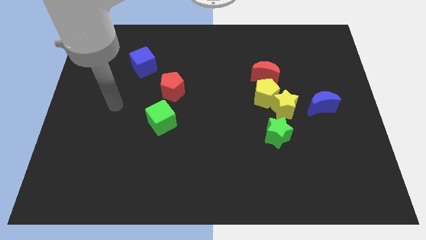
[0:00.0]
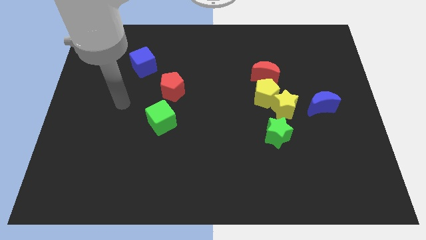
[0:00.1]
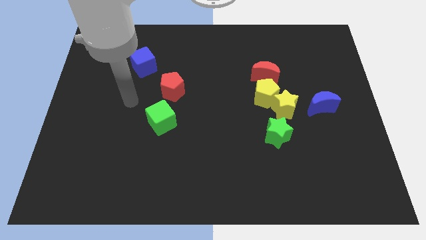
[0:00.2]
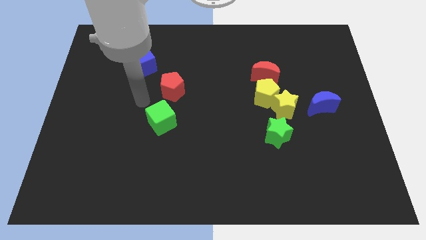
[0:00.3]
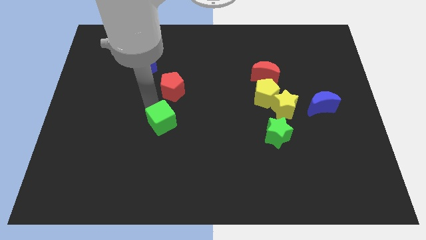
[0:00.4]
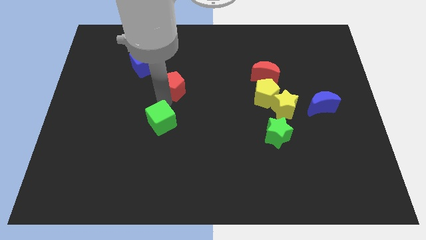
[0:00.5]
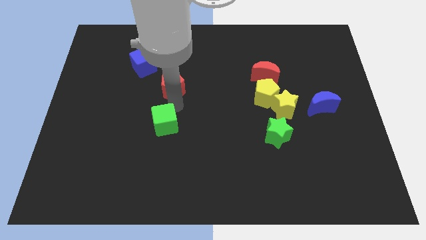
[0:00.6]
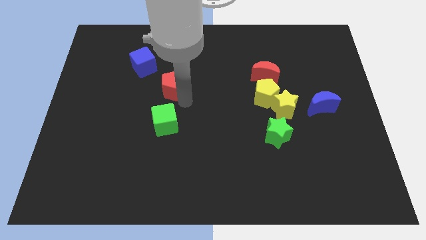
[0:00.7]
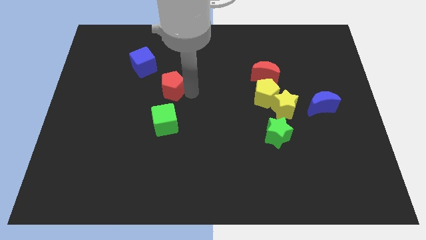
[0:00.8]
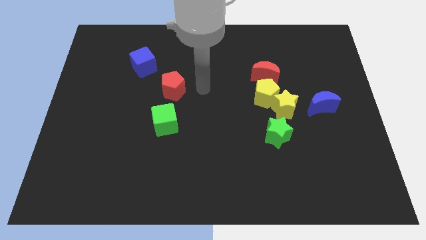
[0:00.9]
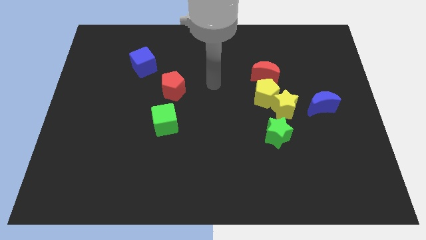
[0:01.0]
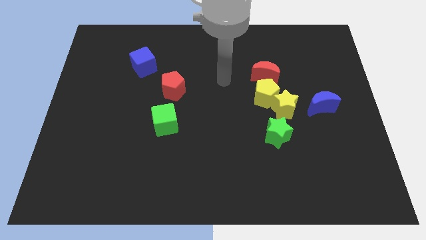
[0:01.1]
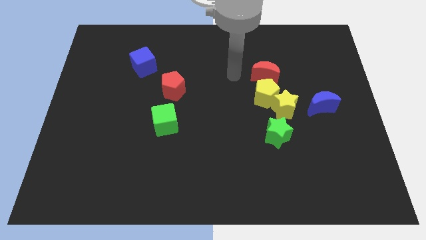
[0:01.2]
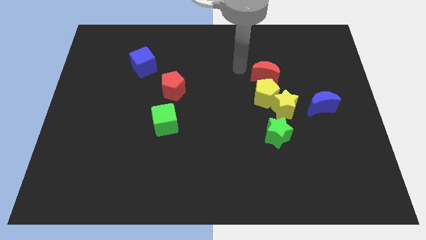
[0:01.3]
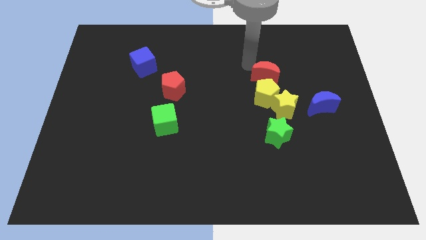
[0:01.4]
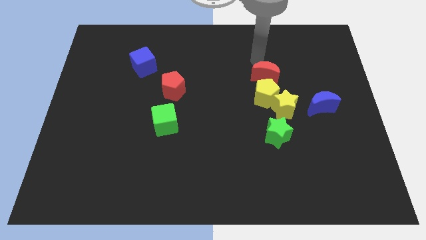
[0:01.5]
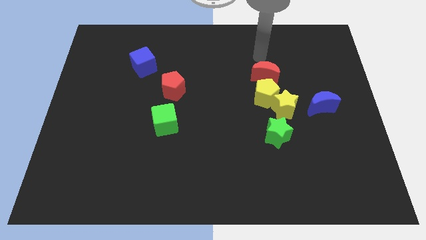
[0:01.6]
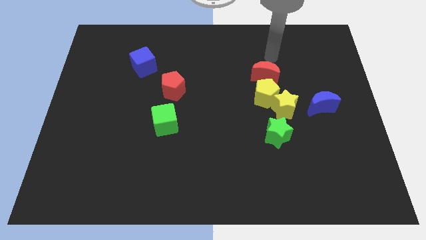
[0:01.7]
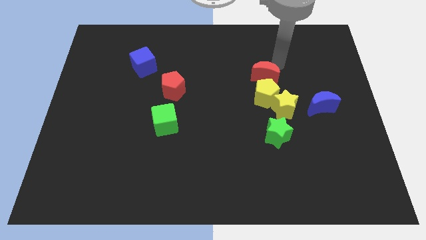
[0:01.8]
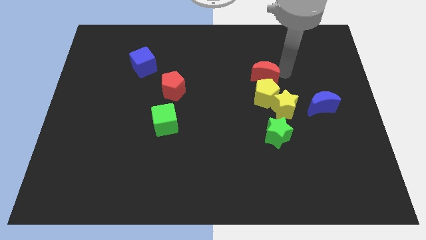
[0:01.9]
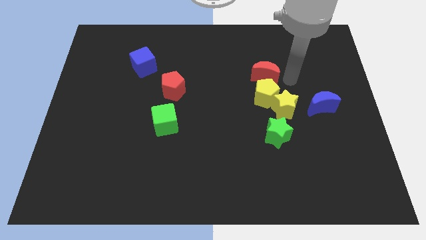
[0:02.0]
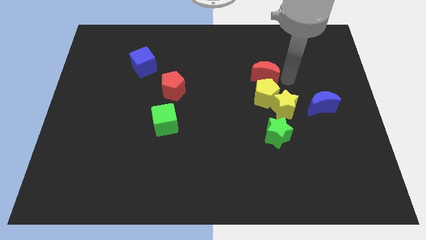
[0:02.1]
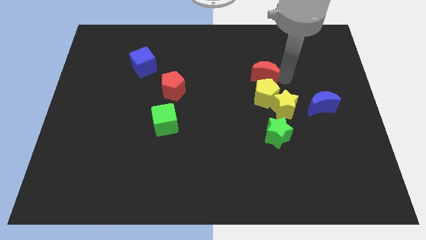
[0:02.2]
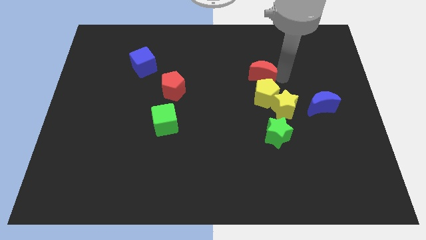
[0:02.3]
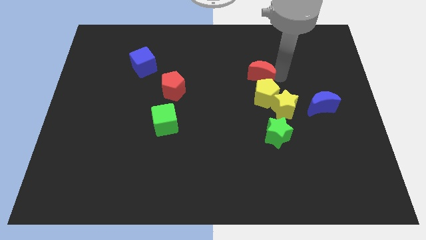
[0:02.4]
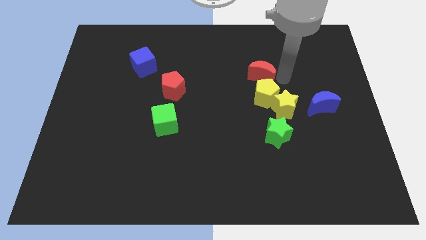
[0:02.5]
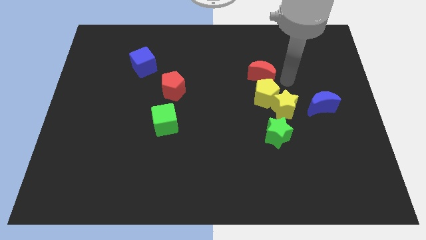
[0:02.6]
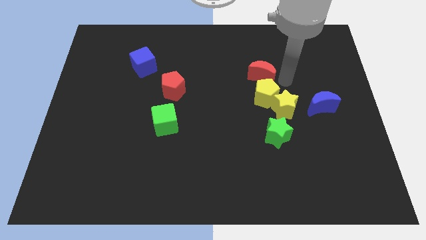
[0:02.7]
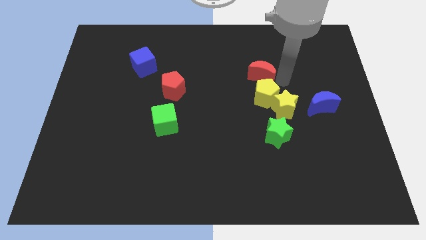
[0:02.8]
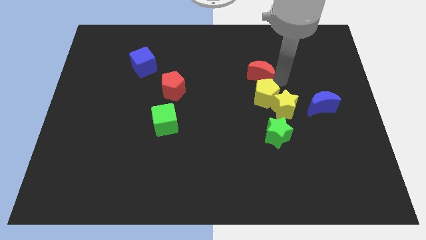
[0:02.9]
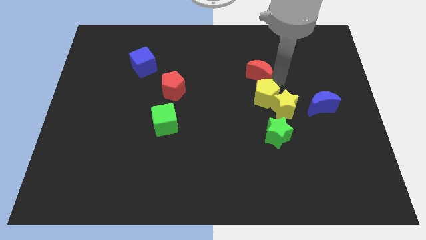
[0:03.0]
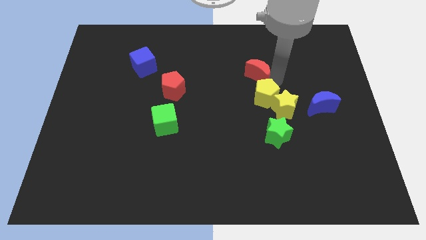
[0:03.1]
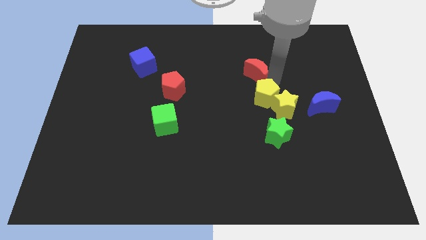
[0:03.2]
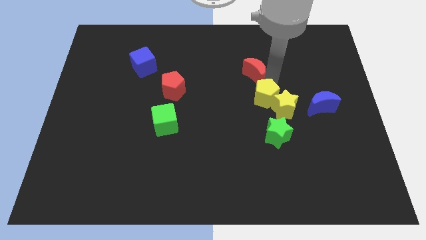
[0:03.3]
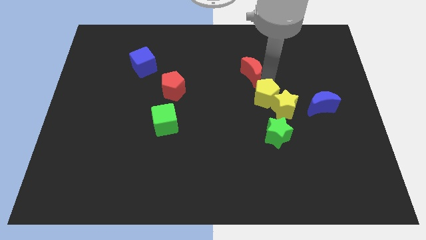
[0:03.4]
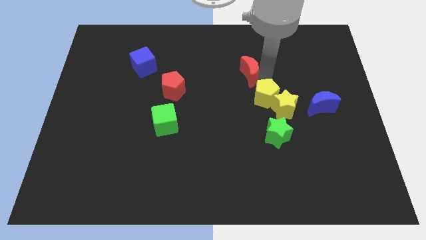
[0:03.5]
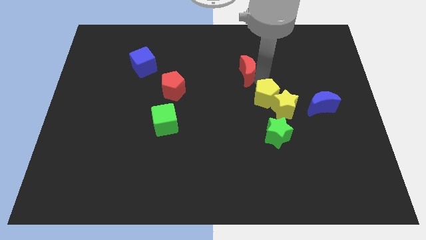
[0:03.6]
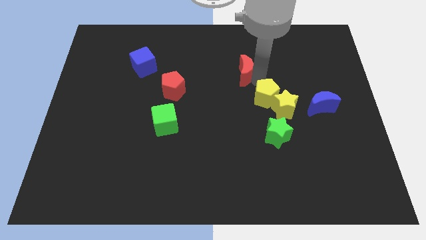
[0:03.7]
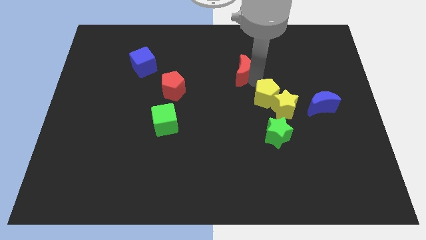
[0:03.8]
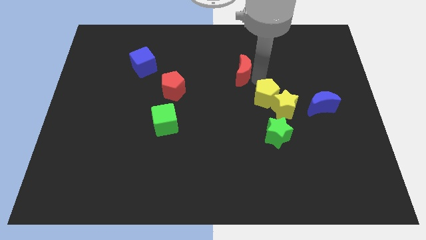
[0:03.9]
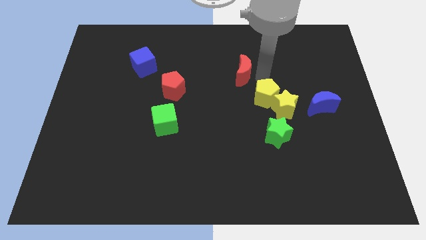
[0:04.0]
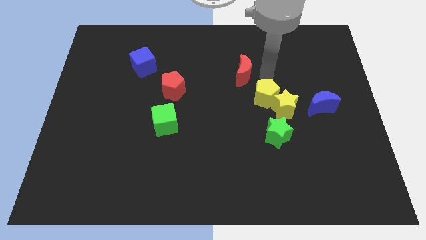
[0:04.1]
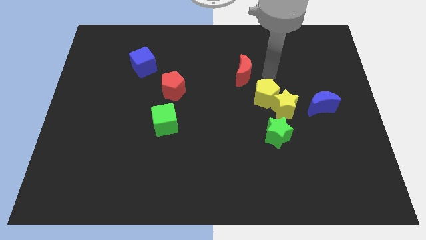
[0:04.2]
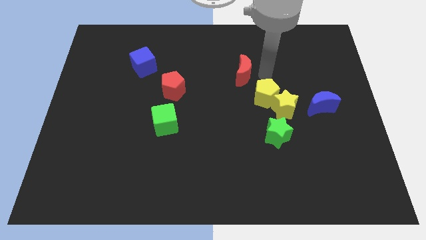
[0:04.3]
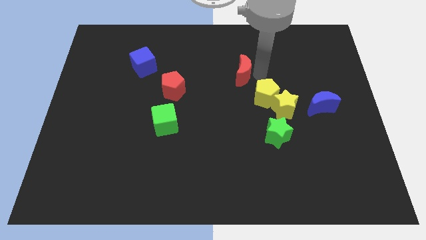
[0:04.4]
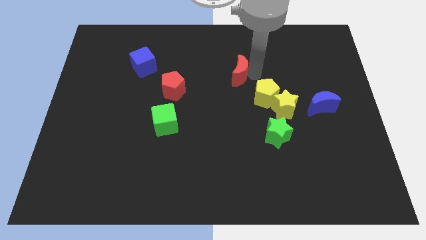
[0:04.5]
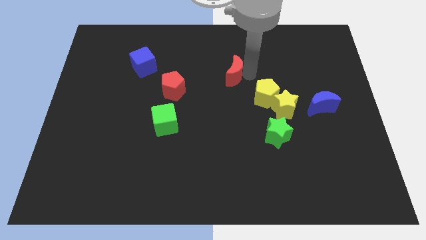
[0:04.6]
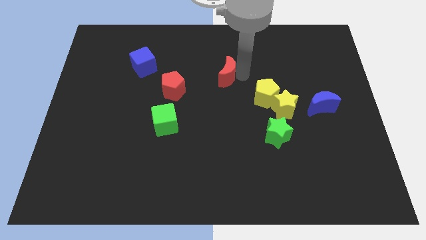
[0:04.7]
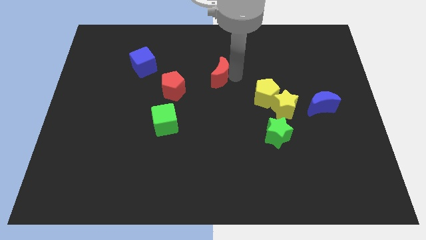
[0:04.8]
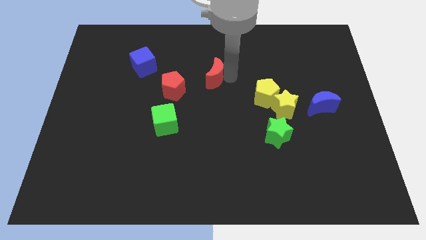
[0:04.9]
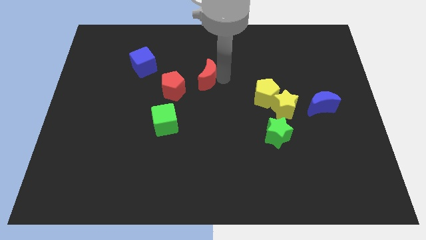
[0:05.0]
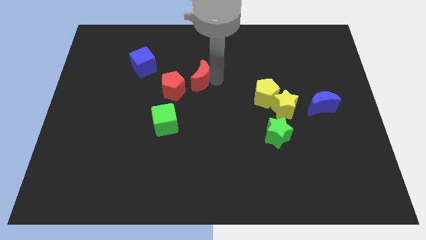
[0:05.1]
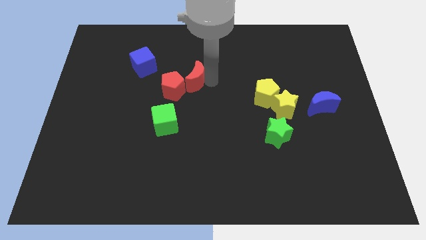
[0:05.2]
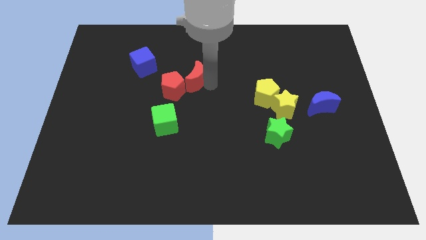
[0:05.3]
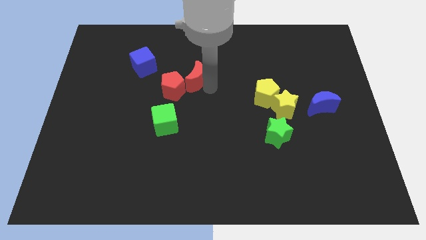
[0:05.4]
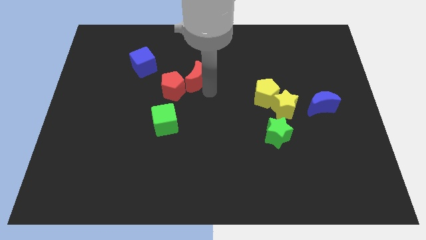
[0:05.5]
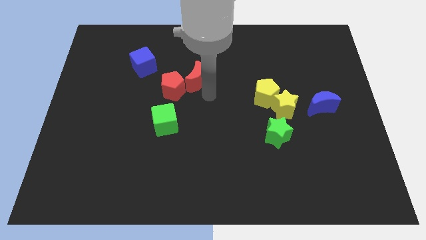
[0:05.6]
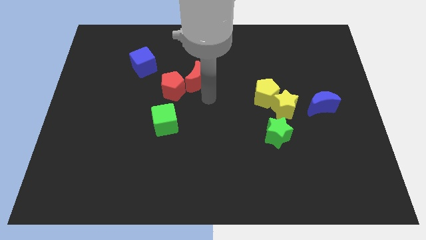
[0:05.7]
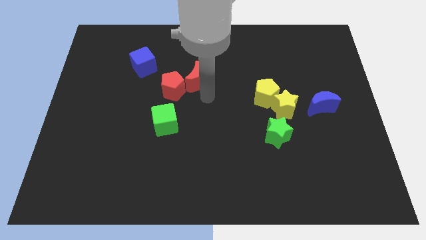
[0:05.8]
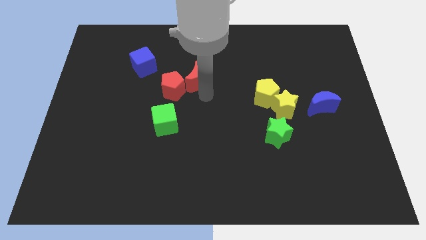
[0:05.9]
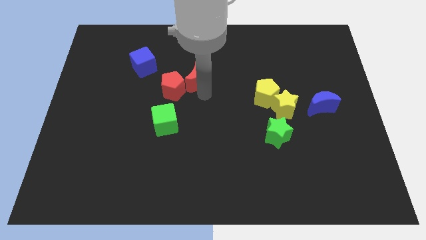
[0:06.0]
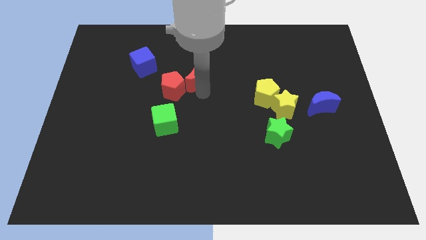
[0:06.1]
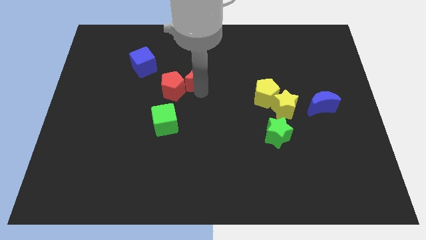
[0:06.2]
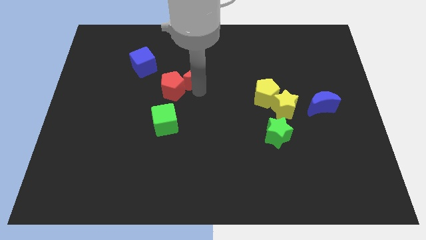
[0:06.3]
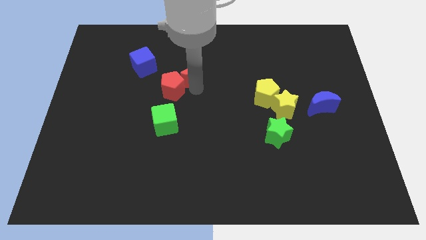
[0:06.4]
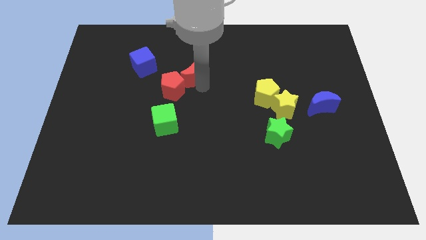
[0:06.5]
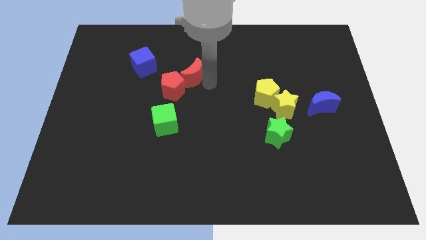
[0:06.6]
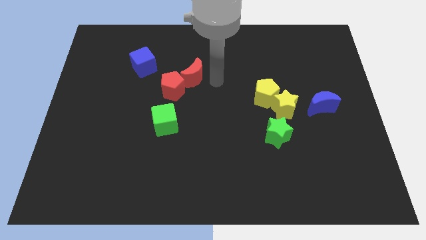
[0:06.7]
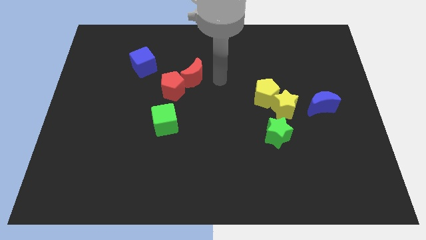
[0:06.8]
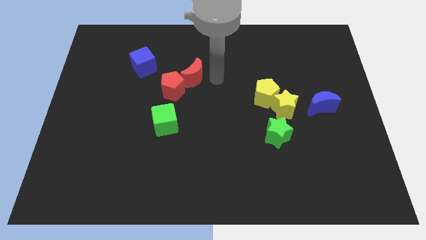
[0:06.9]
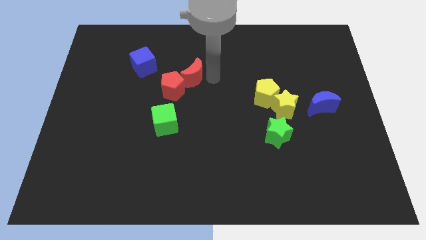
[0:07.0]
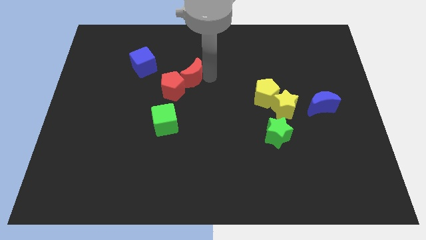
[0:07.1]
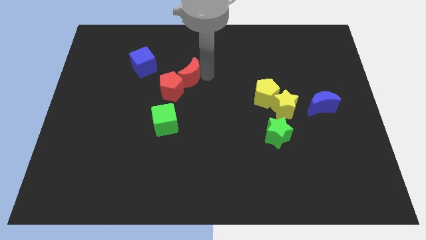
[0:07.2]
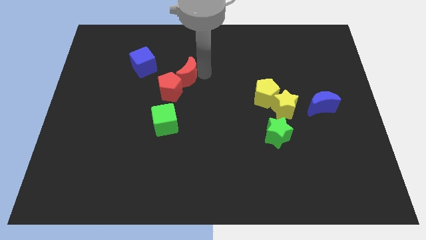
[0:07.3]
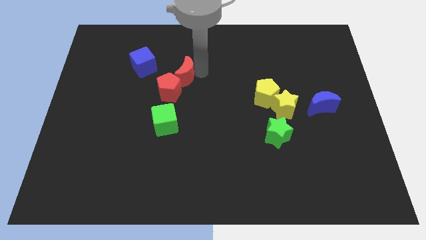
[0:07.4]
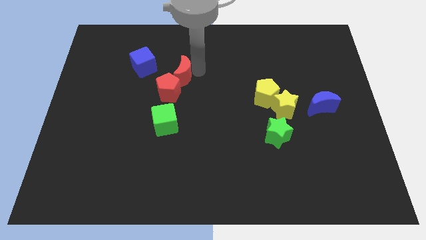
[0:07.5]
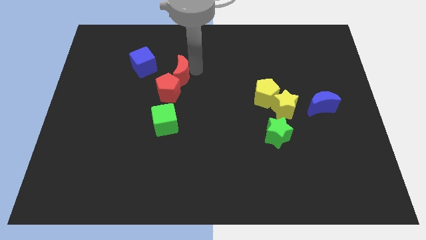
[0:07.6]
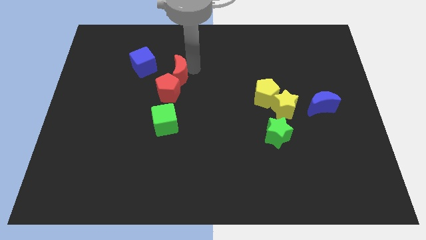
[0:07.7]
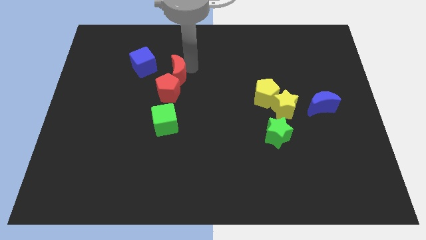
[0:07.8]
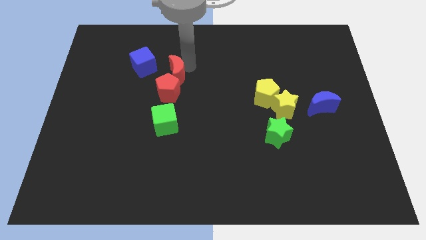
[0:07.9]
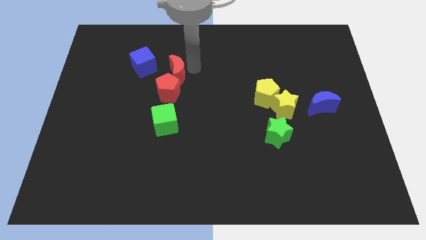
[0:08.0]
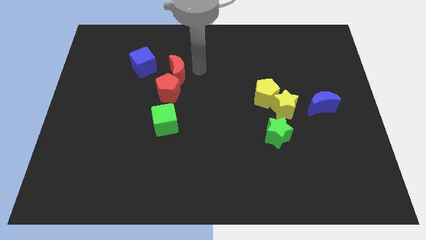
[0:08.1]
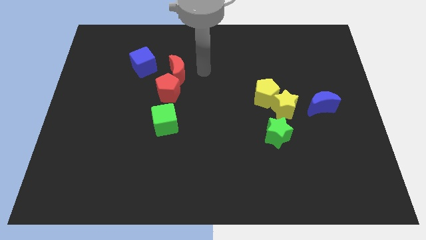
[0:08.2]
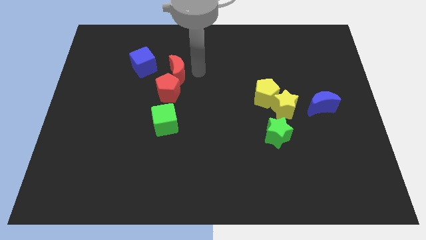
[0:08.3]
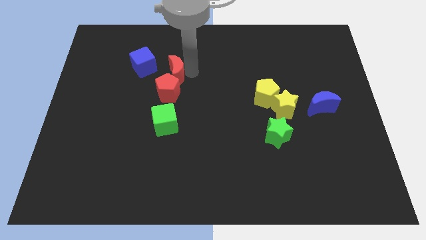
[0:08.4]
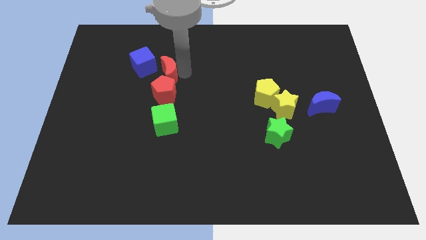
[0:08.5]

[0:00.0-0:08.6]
put the red moon diagonally up and to the left of the red pentagon
